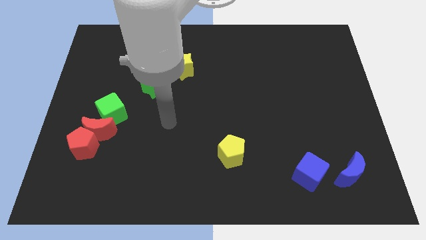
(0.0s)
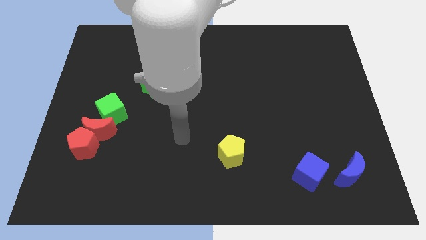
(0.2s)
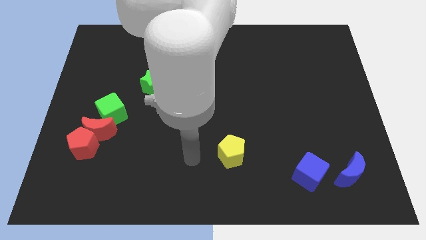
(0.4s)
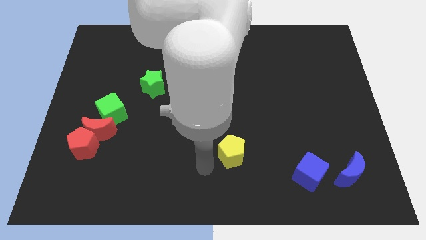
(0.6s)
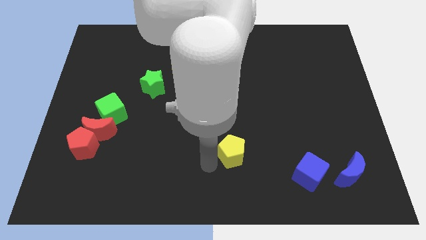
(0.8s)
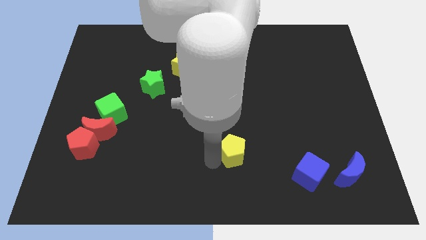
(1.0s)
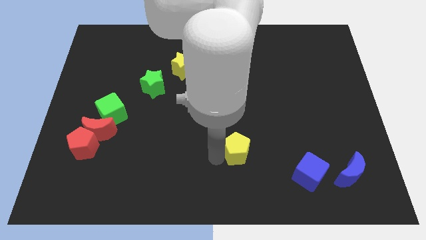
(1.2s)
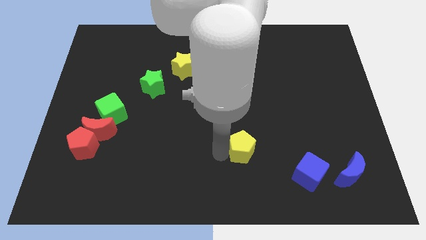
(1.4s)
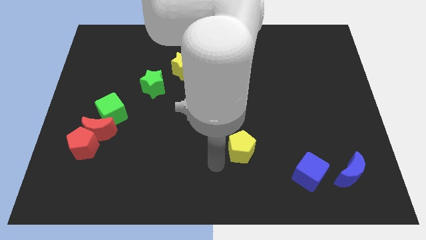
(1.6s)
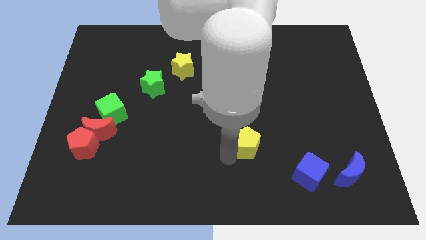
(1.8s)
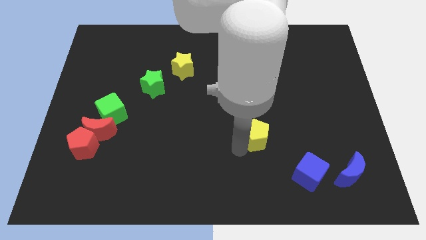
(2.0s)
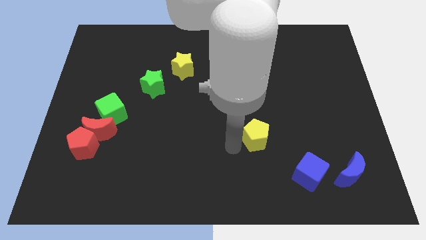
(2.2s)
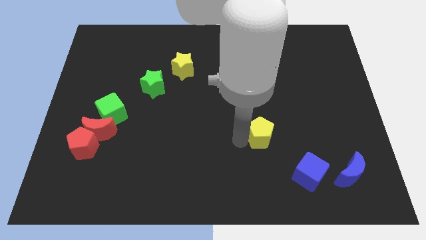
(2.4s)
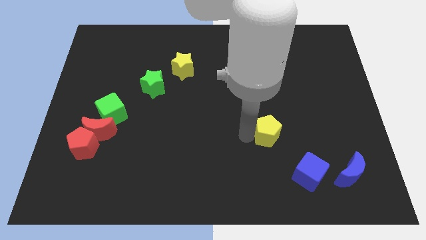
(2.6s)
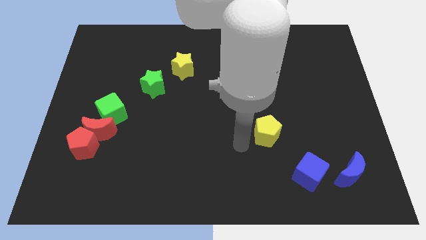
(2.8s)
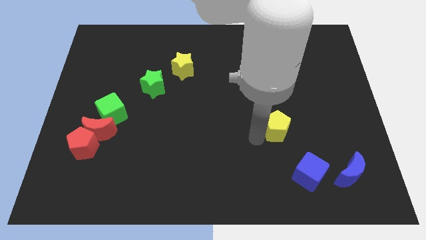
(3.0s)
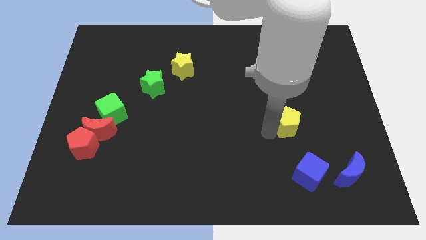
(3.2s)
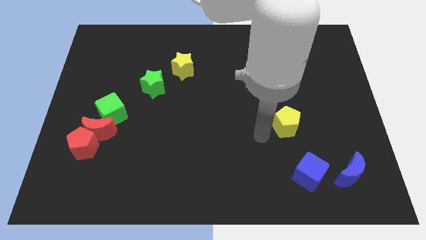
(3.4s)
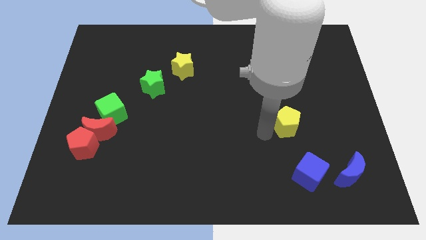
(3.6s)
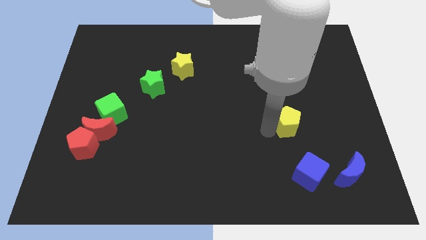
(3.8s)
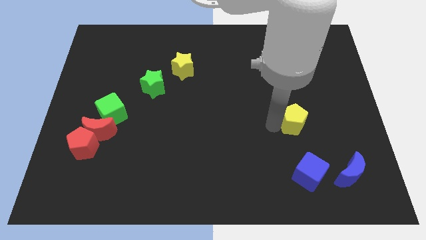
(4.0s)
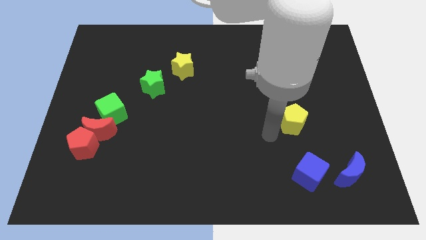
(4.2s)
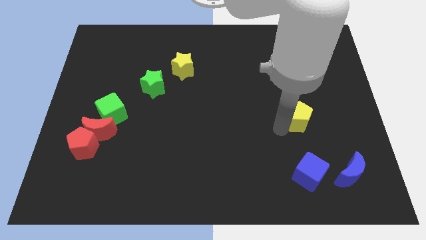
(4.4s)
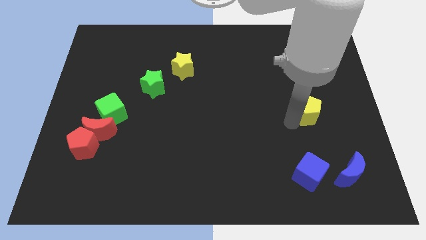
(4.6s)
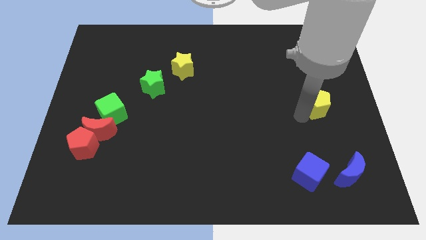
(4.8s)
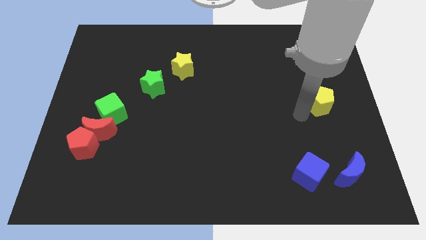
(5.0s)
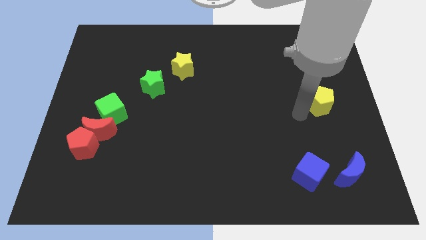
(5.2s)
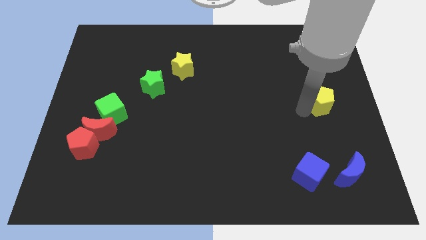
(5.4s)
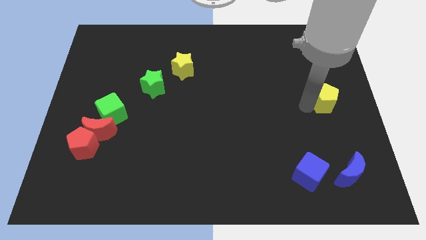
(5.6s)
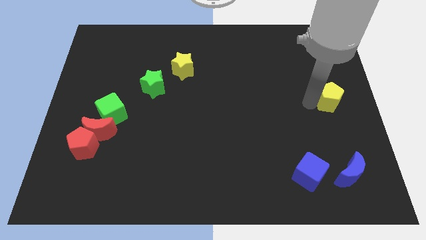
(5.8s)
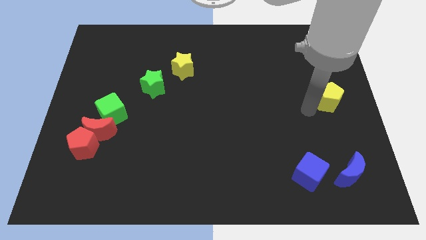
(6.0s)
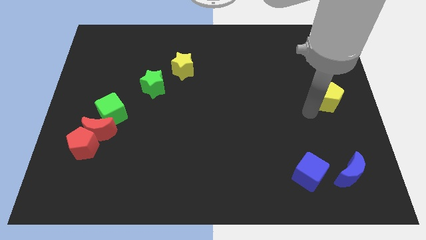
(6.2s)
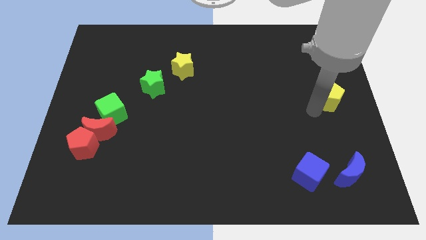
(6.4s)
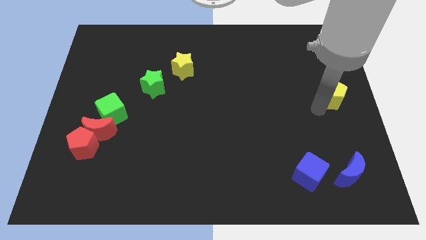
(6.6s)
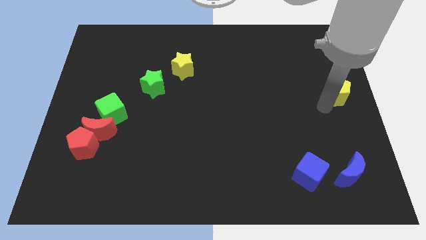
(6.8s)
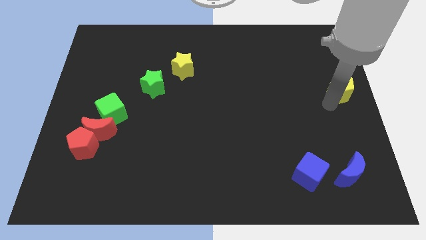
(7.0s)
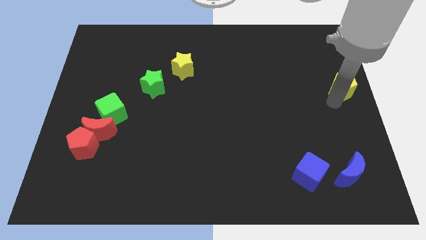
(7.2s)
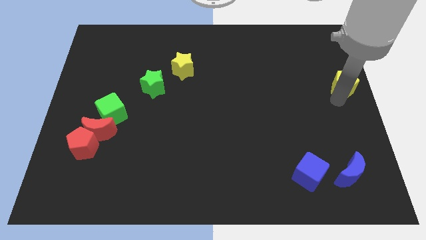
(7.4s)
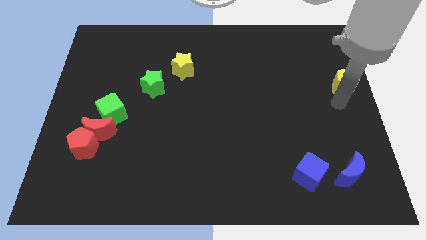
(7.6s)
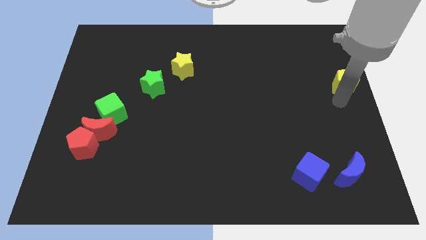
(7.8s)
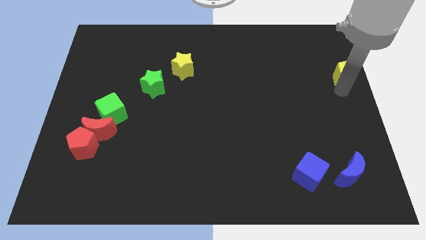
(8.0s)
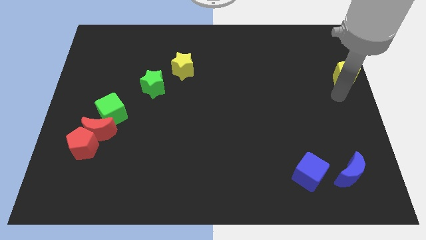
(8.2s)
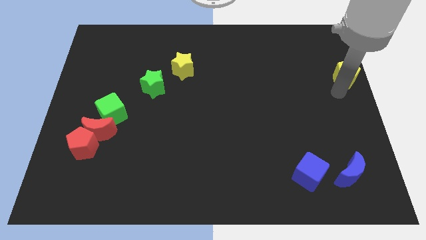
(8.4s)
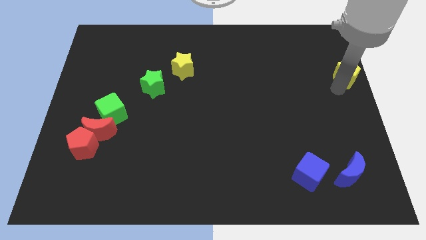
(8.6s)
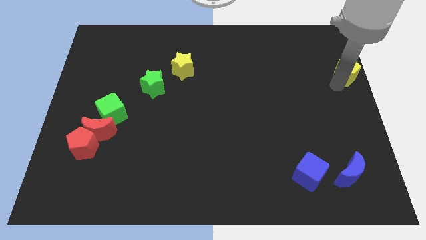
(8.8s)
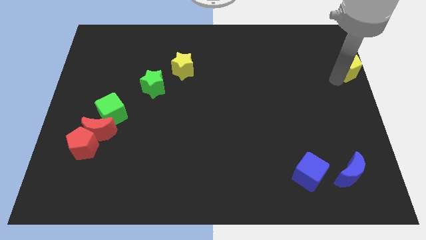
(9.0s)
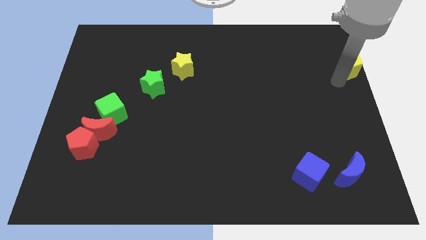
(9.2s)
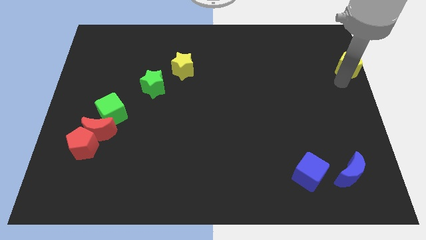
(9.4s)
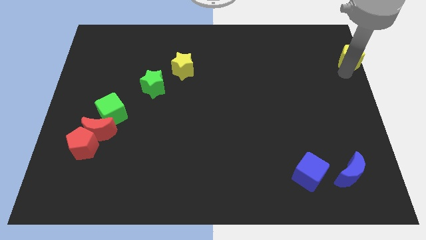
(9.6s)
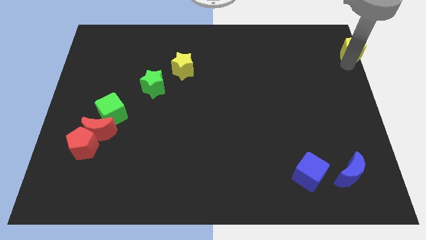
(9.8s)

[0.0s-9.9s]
slide the yellow pentagon to the top right corner

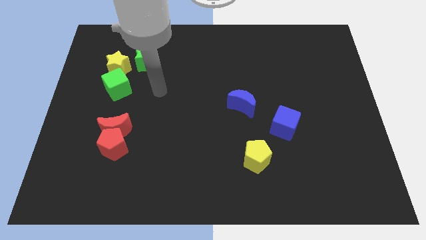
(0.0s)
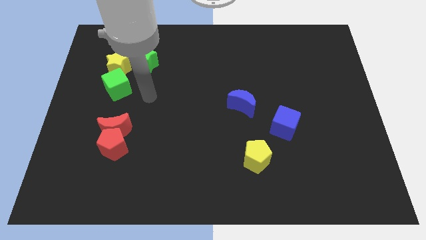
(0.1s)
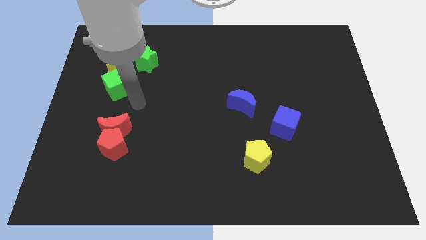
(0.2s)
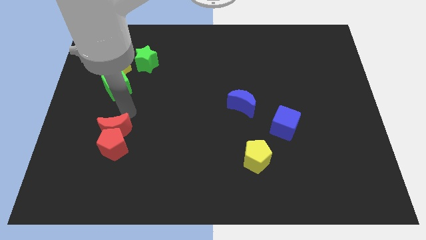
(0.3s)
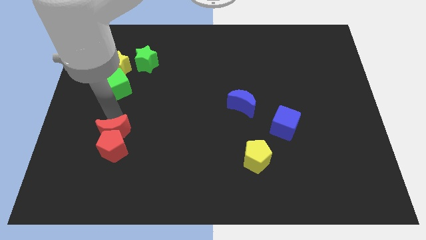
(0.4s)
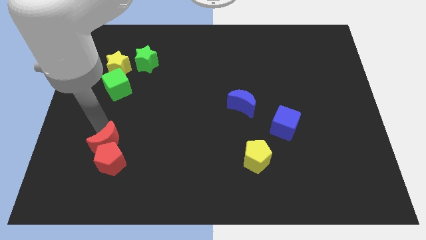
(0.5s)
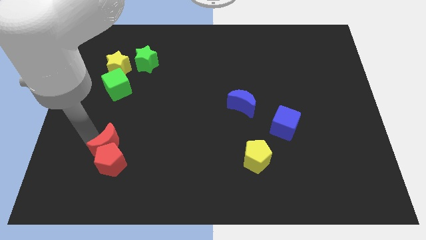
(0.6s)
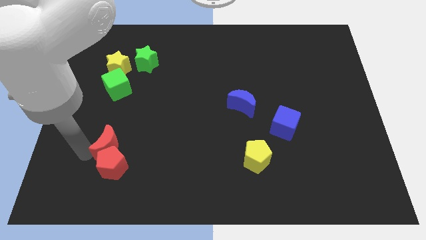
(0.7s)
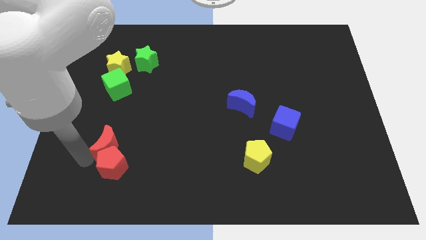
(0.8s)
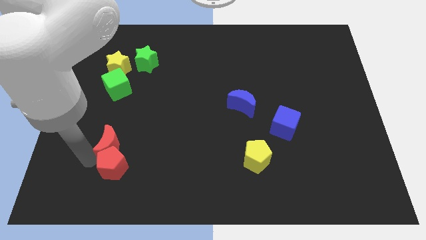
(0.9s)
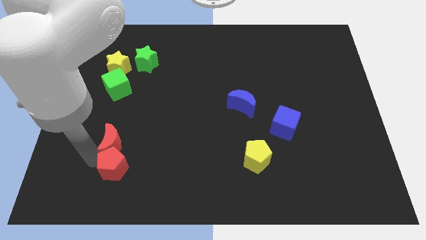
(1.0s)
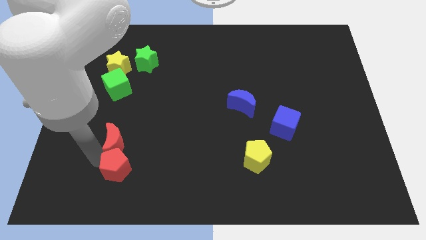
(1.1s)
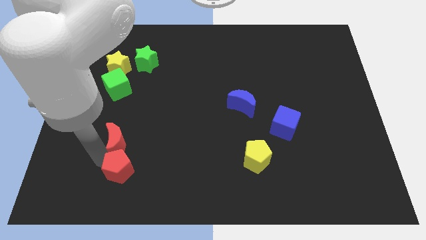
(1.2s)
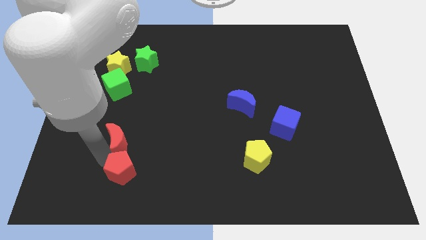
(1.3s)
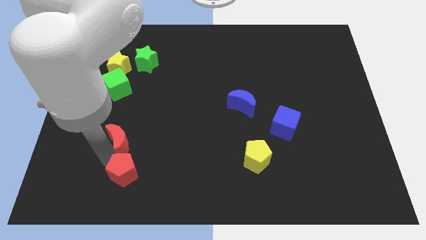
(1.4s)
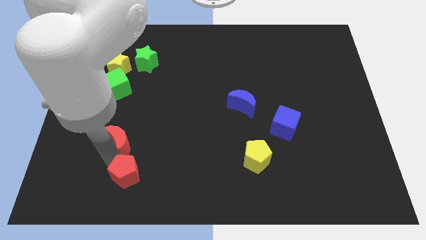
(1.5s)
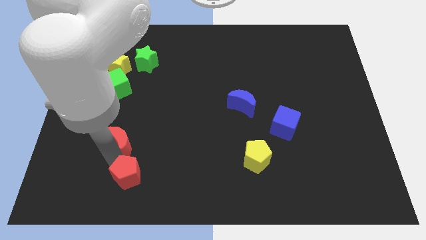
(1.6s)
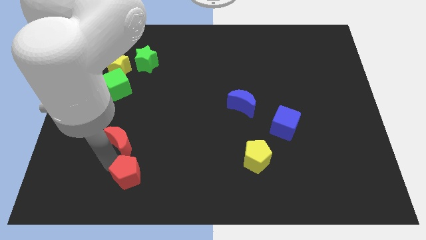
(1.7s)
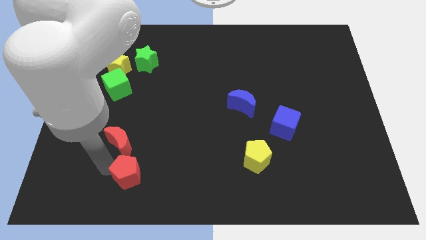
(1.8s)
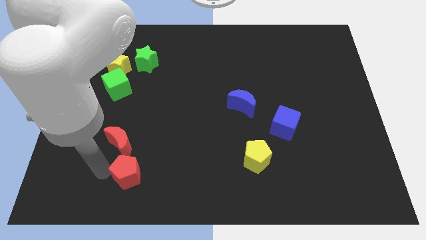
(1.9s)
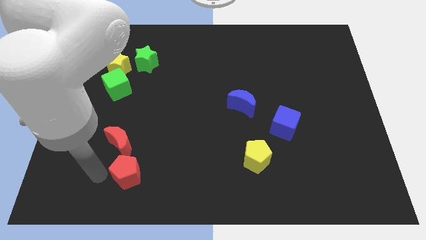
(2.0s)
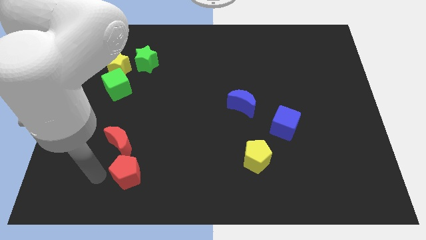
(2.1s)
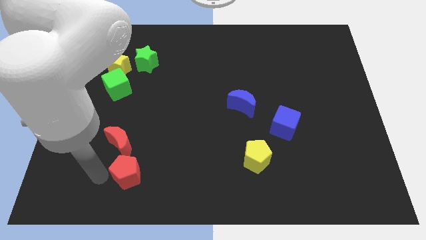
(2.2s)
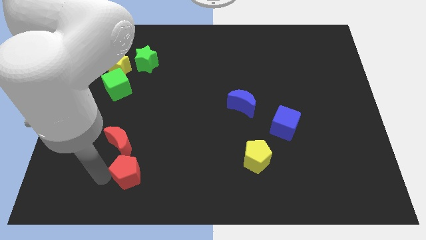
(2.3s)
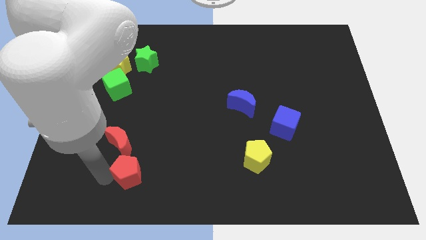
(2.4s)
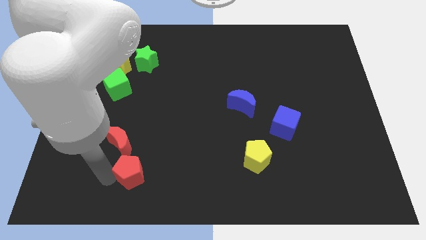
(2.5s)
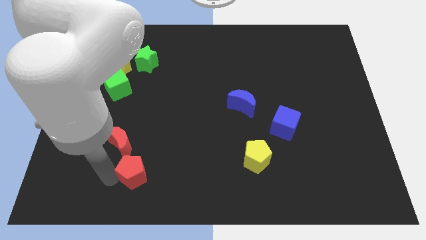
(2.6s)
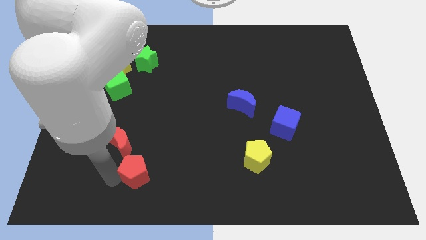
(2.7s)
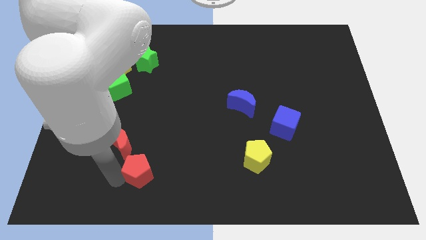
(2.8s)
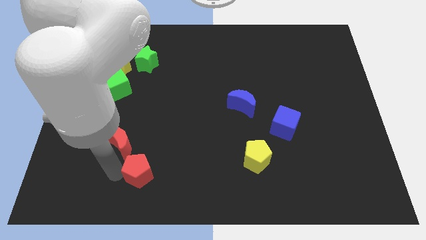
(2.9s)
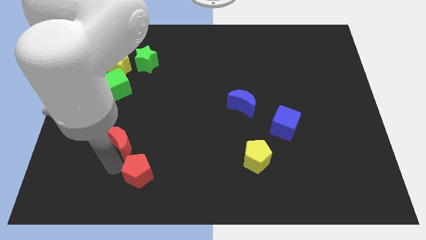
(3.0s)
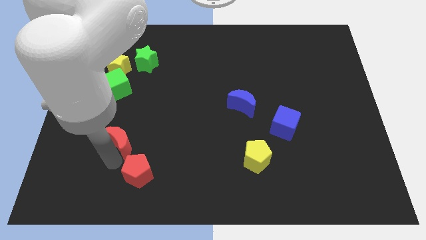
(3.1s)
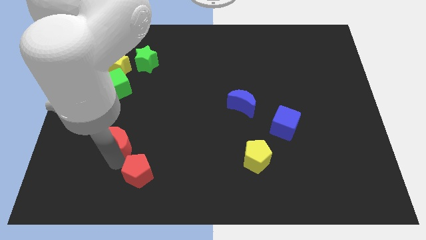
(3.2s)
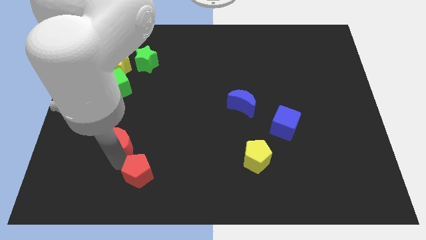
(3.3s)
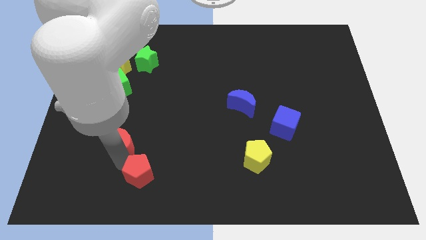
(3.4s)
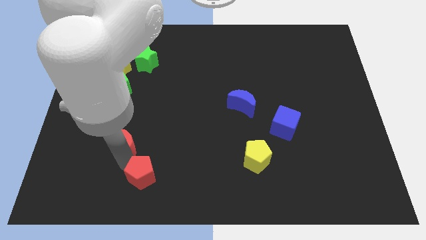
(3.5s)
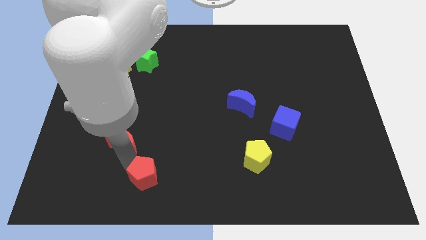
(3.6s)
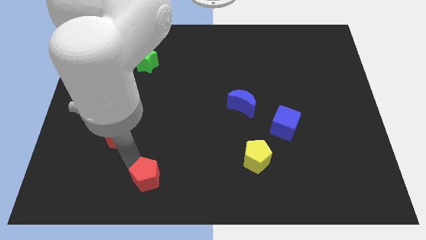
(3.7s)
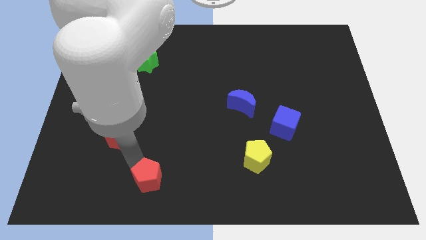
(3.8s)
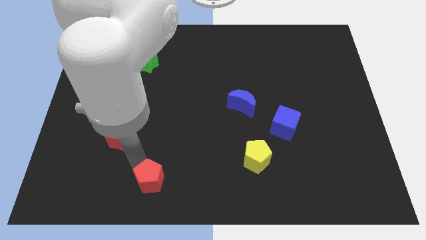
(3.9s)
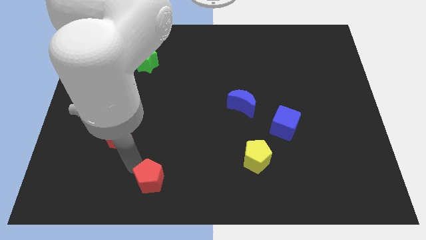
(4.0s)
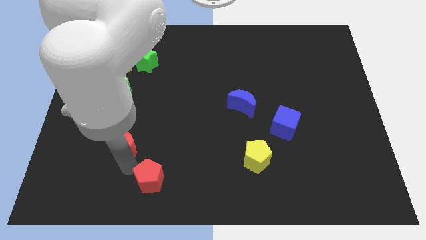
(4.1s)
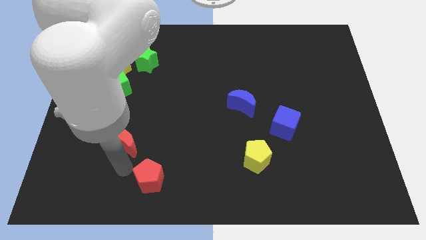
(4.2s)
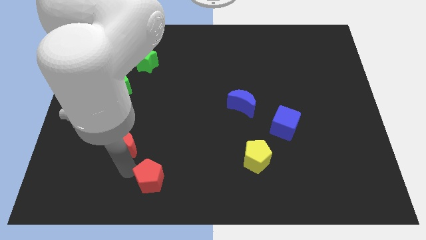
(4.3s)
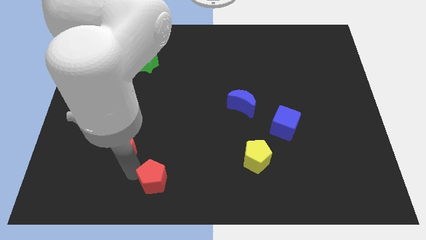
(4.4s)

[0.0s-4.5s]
slide the red pentagon to the bottom side
